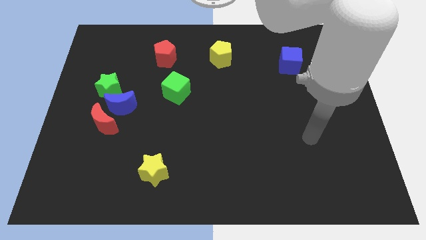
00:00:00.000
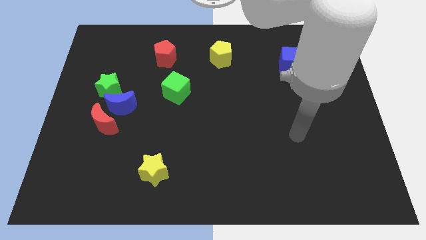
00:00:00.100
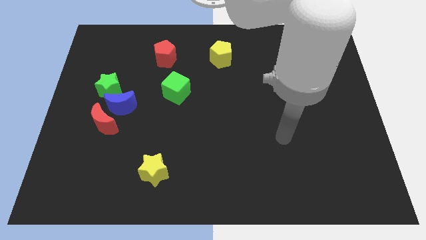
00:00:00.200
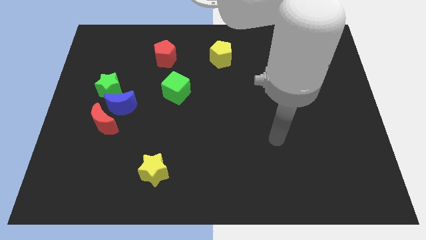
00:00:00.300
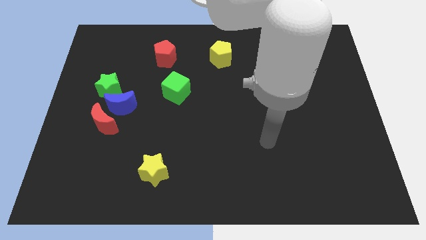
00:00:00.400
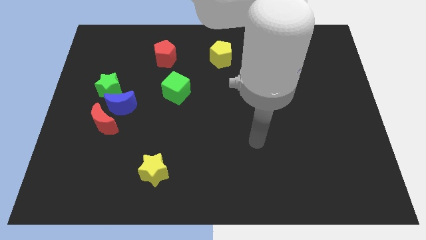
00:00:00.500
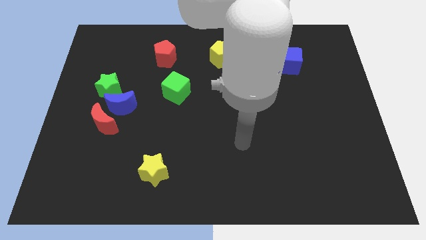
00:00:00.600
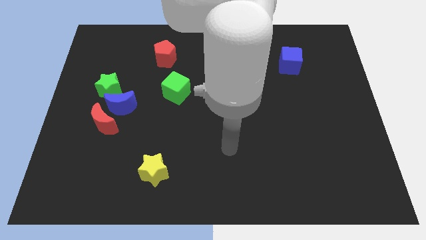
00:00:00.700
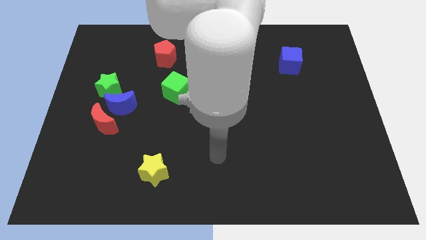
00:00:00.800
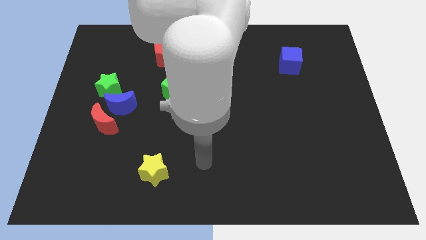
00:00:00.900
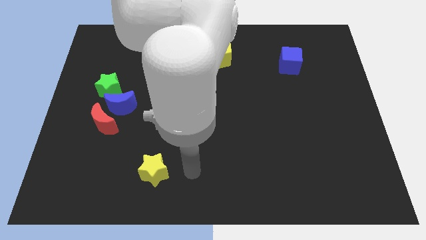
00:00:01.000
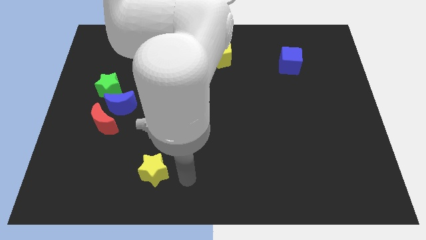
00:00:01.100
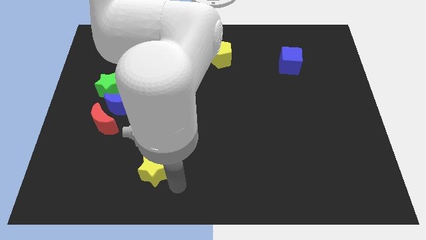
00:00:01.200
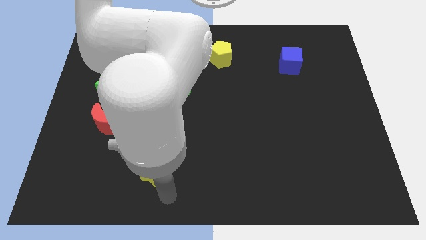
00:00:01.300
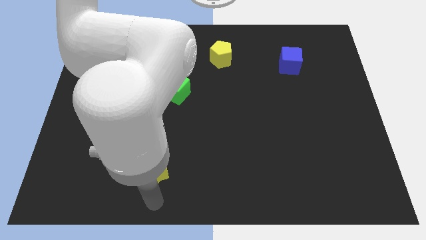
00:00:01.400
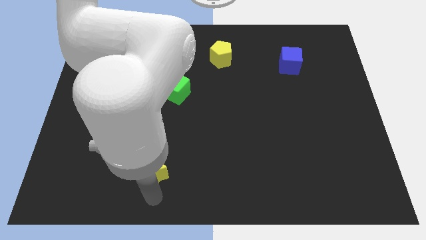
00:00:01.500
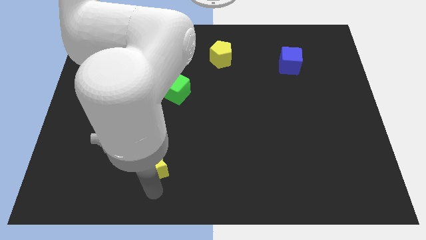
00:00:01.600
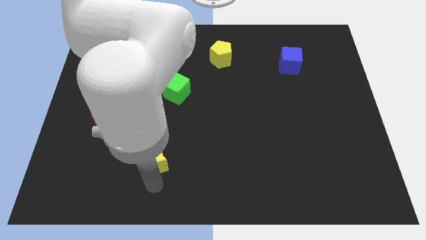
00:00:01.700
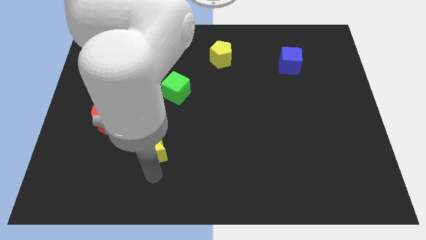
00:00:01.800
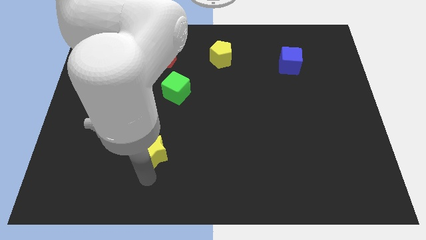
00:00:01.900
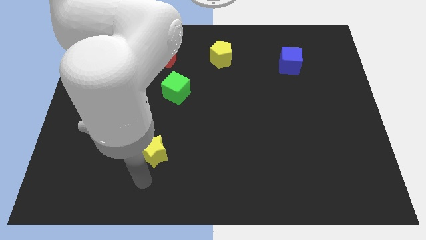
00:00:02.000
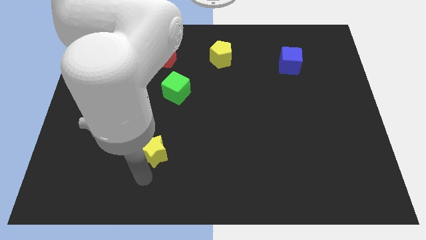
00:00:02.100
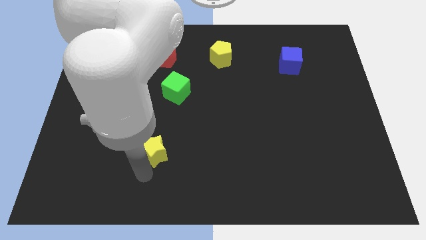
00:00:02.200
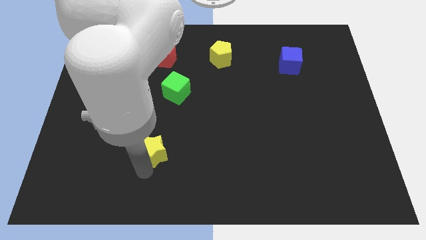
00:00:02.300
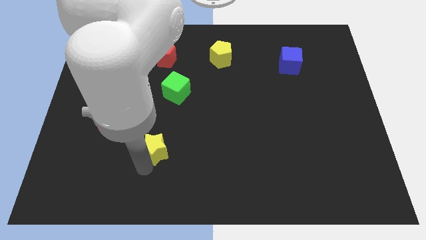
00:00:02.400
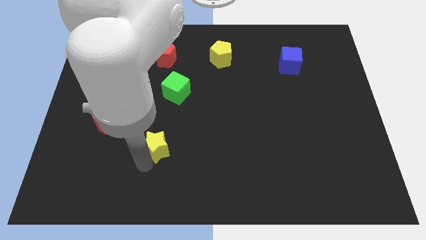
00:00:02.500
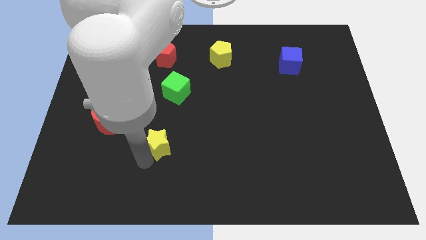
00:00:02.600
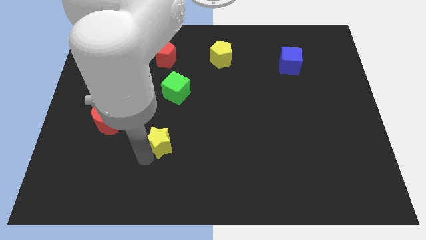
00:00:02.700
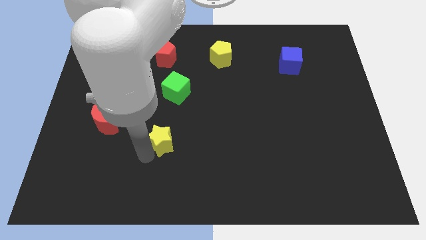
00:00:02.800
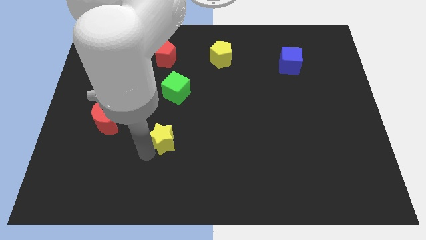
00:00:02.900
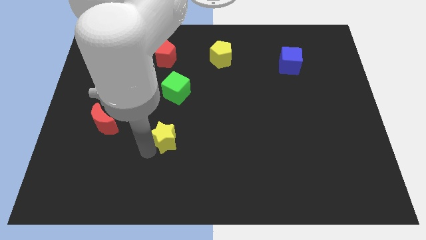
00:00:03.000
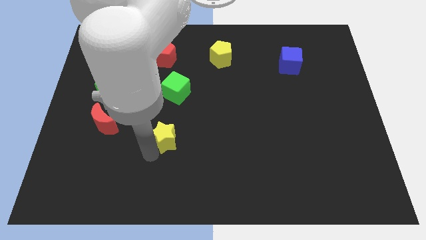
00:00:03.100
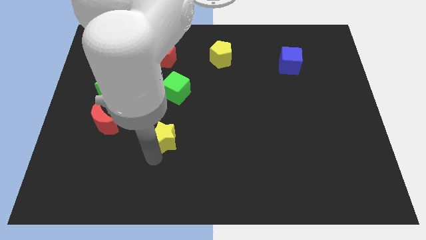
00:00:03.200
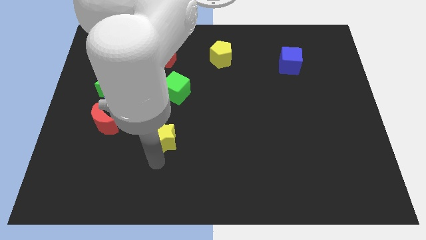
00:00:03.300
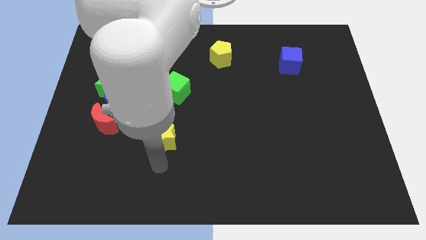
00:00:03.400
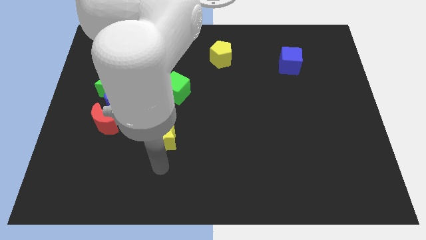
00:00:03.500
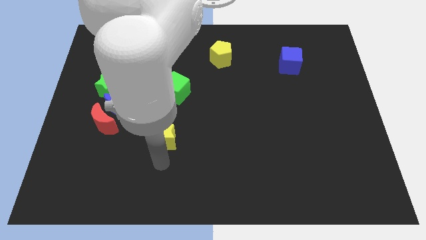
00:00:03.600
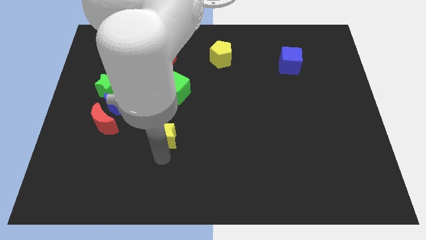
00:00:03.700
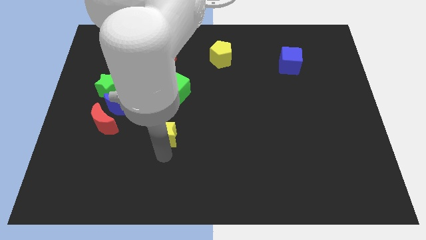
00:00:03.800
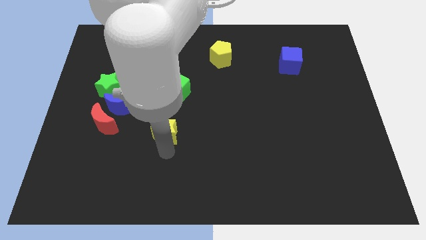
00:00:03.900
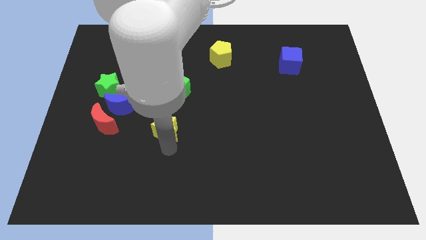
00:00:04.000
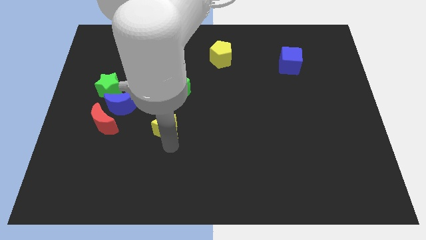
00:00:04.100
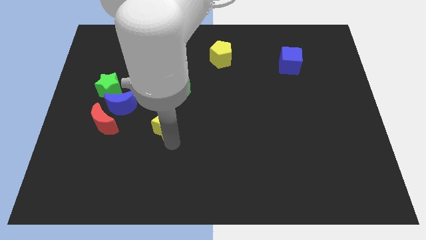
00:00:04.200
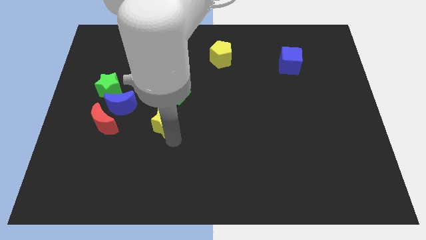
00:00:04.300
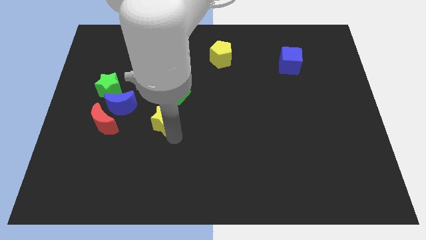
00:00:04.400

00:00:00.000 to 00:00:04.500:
slide the yellow star to the right of the blue moon

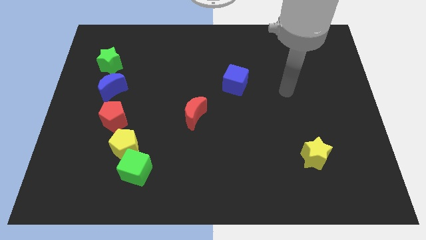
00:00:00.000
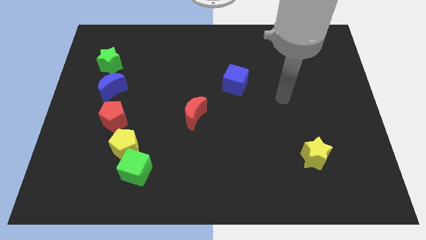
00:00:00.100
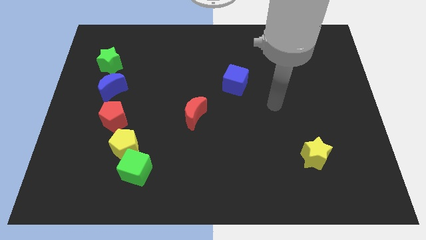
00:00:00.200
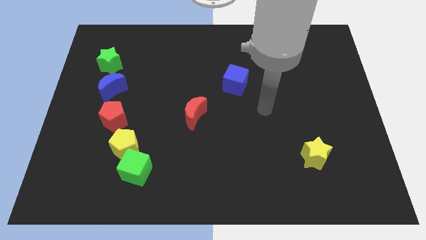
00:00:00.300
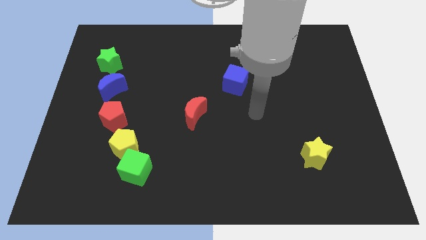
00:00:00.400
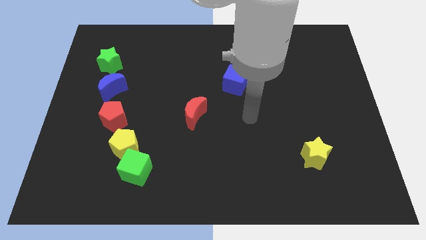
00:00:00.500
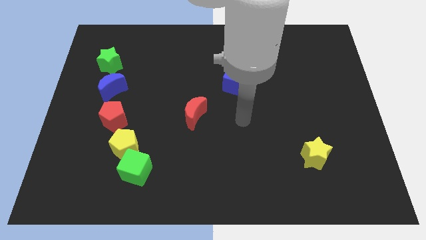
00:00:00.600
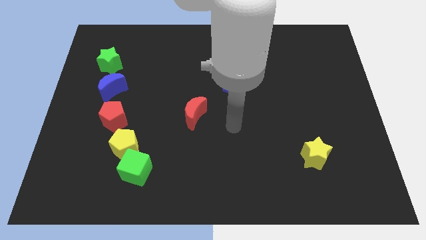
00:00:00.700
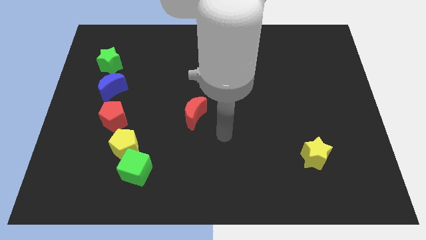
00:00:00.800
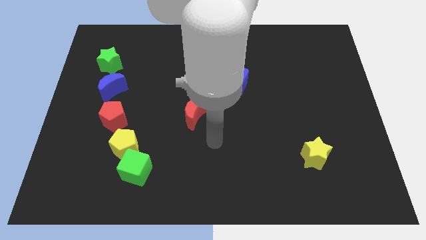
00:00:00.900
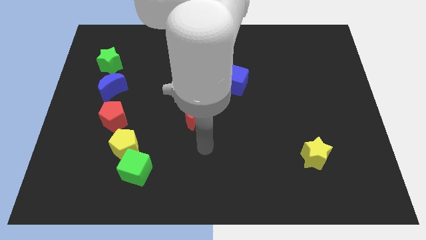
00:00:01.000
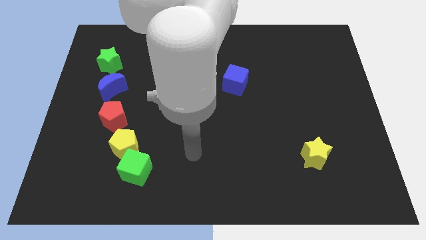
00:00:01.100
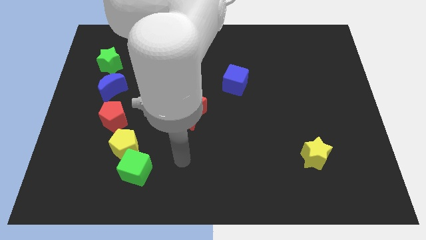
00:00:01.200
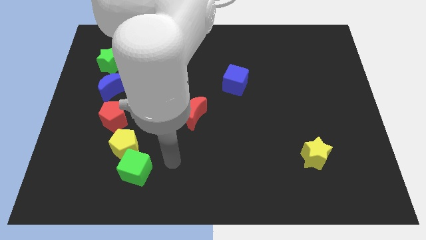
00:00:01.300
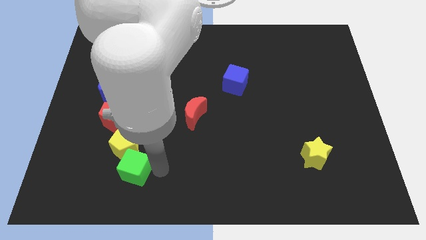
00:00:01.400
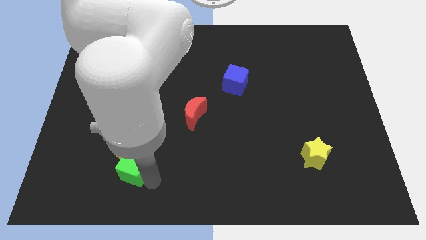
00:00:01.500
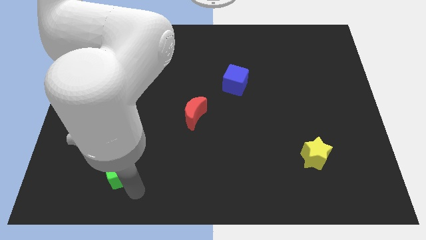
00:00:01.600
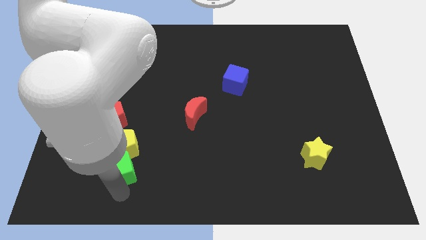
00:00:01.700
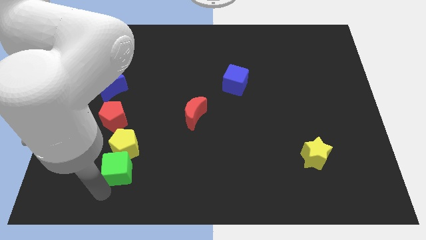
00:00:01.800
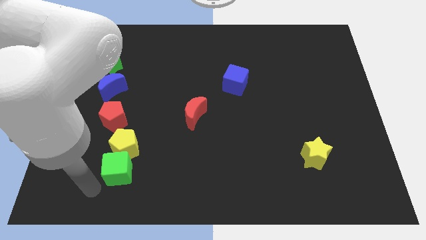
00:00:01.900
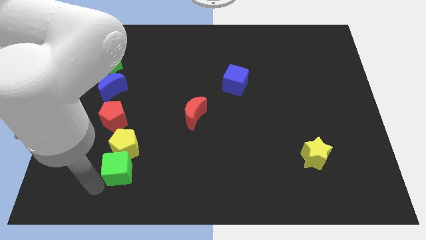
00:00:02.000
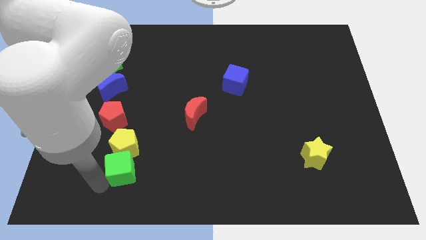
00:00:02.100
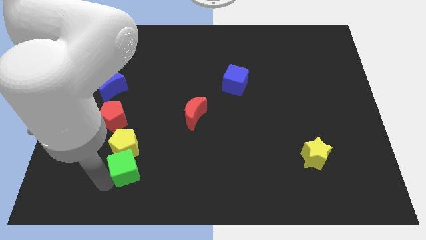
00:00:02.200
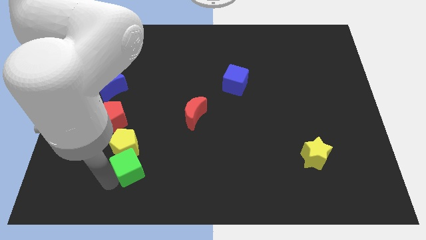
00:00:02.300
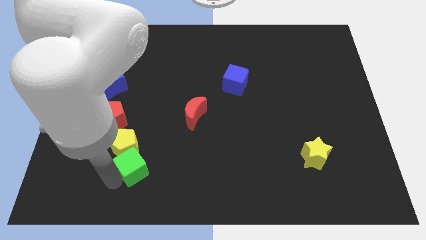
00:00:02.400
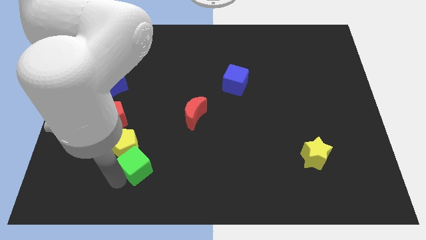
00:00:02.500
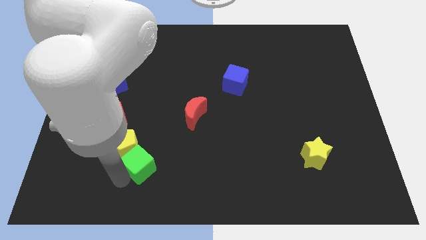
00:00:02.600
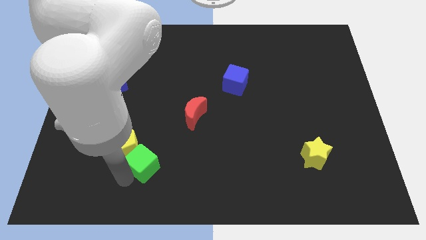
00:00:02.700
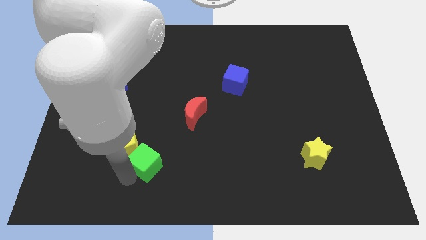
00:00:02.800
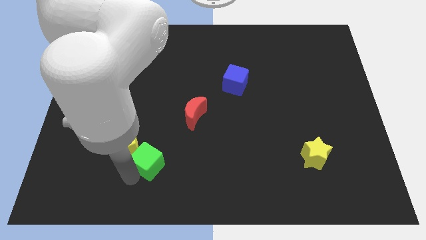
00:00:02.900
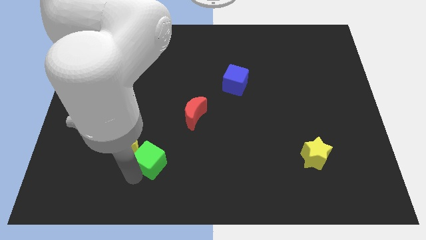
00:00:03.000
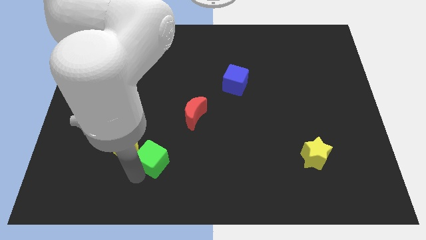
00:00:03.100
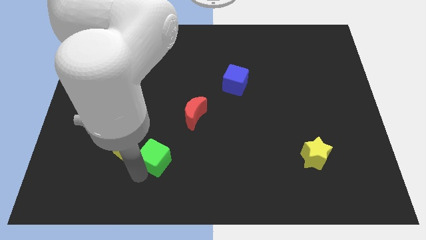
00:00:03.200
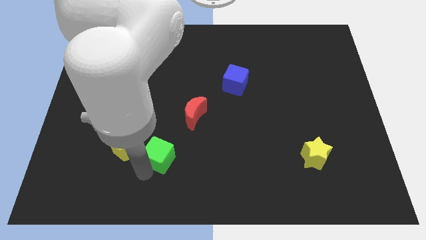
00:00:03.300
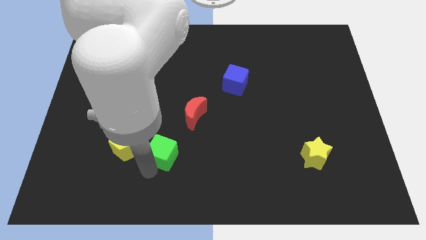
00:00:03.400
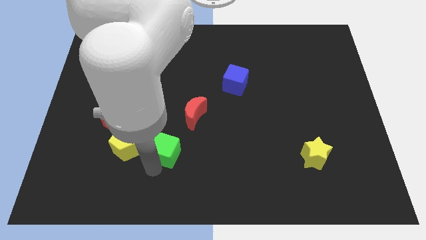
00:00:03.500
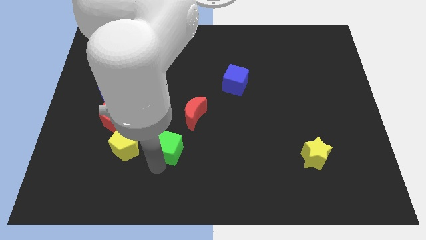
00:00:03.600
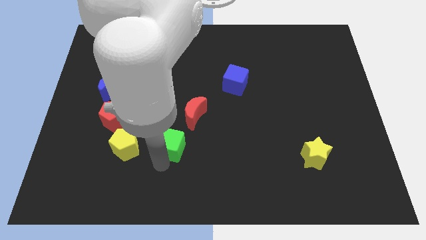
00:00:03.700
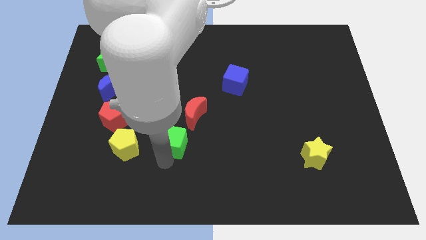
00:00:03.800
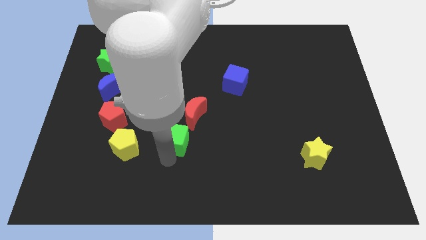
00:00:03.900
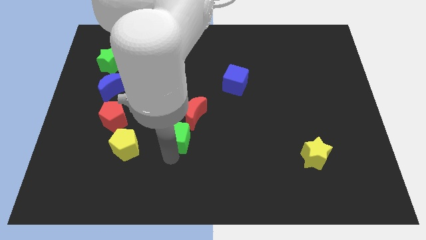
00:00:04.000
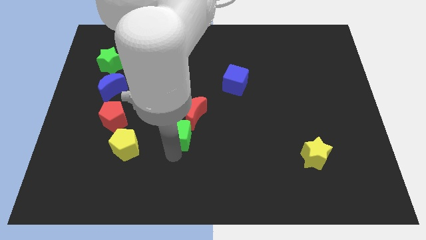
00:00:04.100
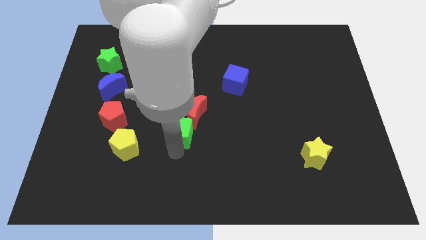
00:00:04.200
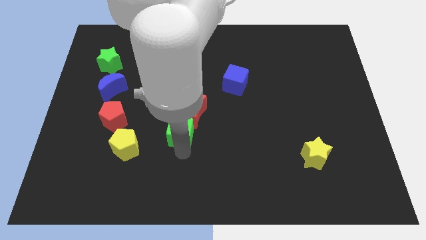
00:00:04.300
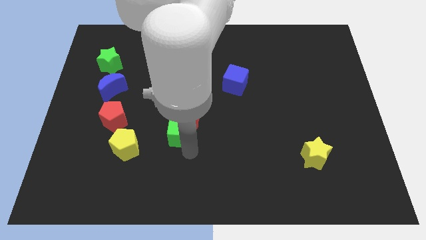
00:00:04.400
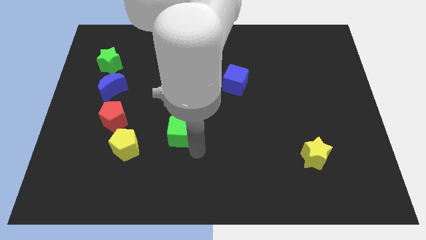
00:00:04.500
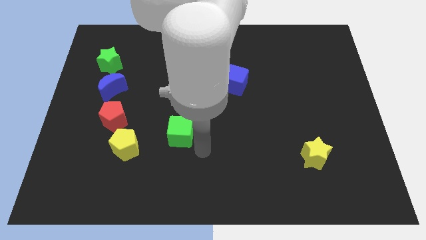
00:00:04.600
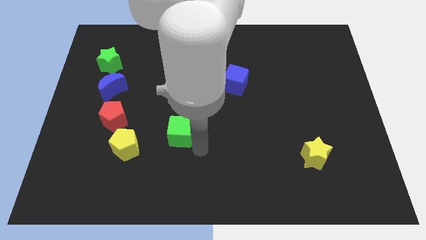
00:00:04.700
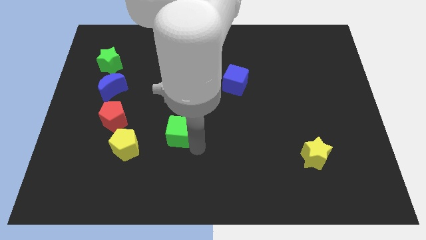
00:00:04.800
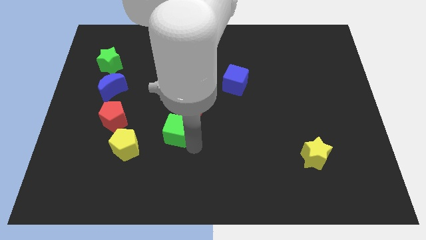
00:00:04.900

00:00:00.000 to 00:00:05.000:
move the green cube to the right of the red pentagon
